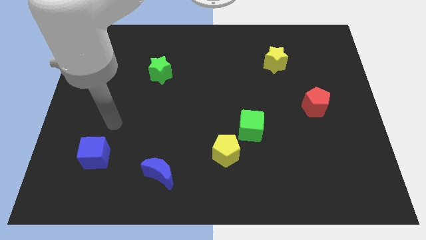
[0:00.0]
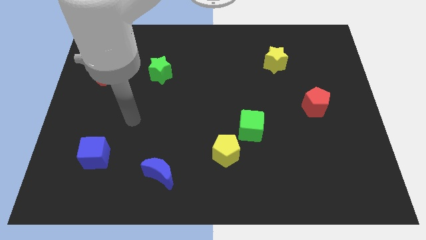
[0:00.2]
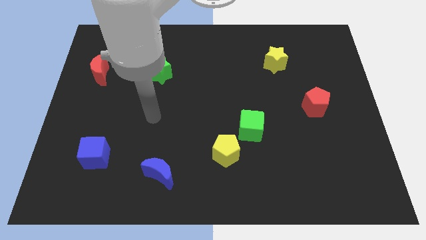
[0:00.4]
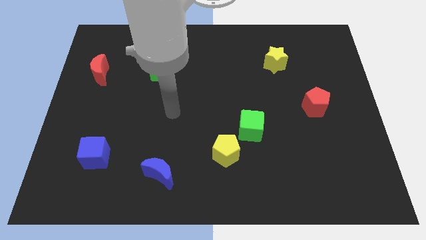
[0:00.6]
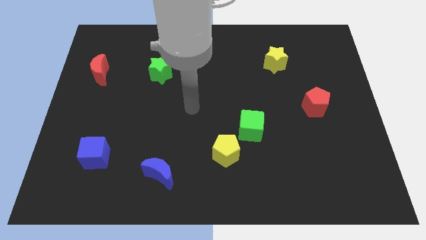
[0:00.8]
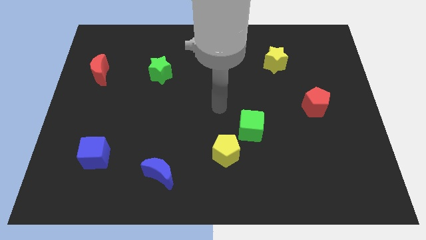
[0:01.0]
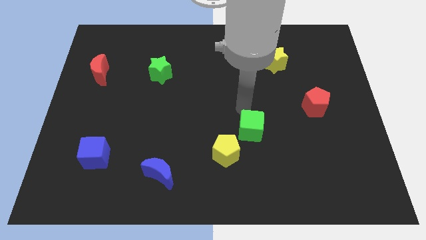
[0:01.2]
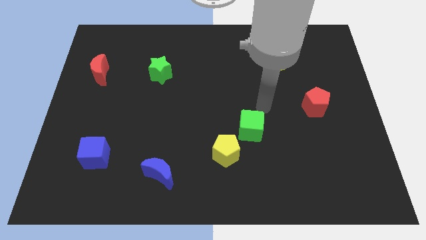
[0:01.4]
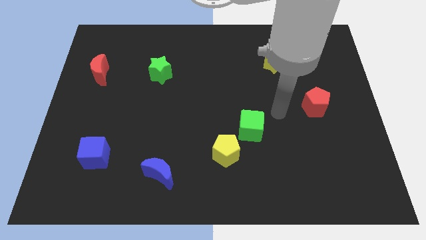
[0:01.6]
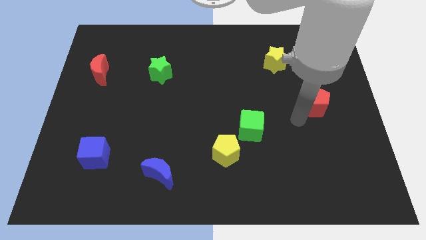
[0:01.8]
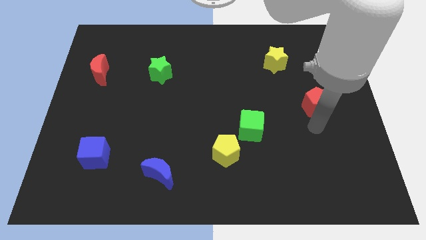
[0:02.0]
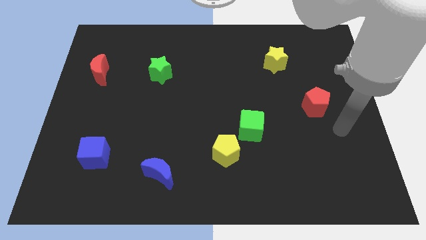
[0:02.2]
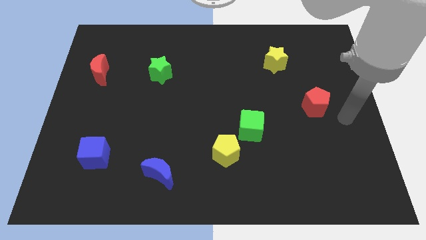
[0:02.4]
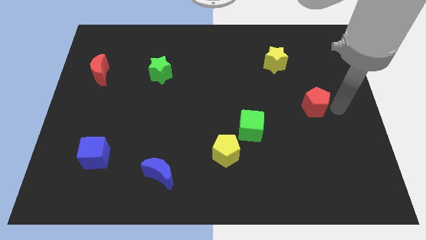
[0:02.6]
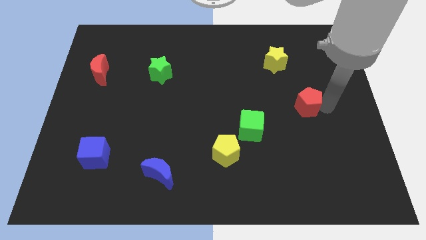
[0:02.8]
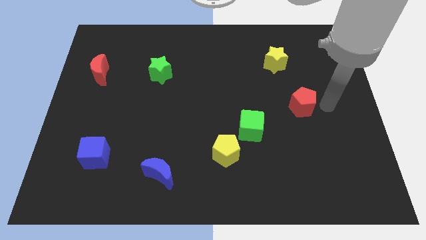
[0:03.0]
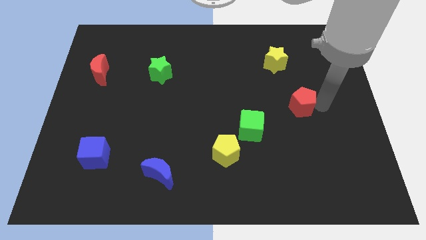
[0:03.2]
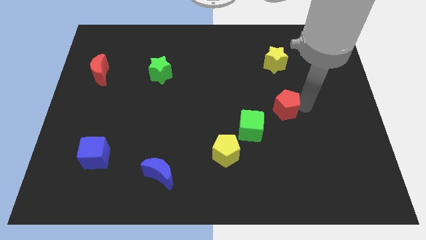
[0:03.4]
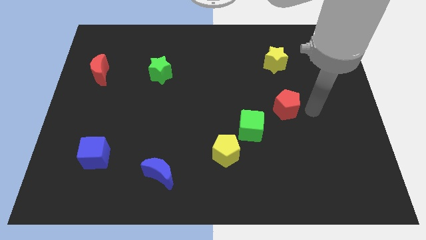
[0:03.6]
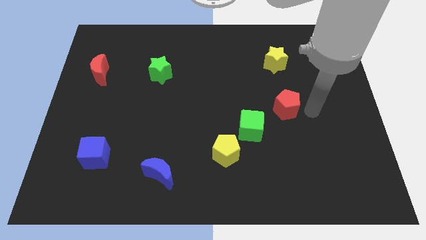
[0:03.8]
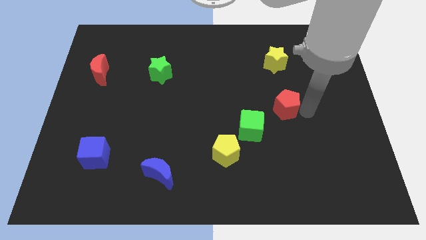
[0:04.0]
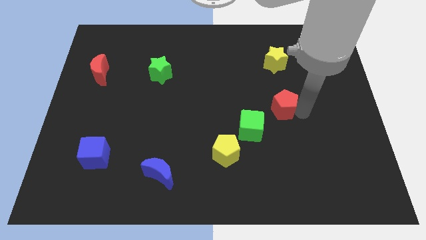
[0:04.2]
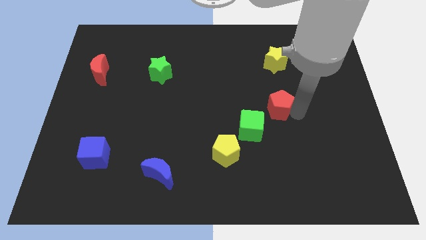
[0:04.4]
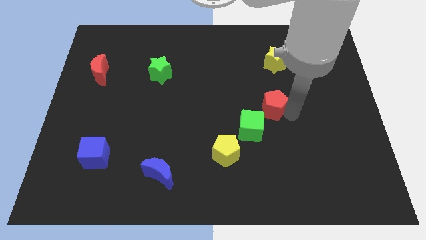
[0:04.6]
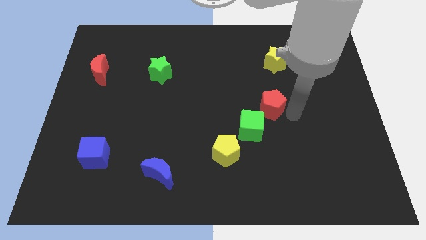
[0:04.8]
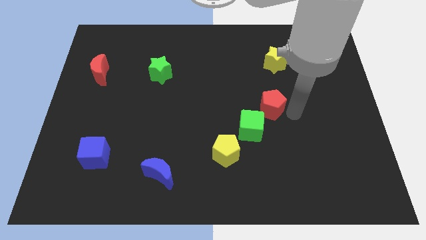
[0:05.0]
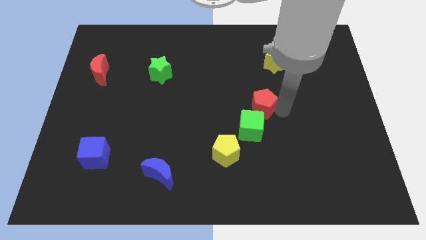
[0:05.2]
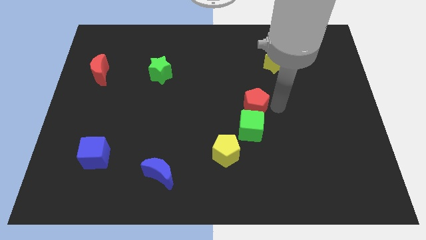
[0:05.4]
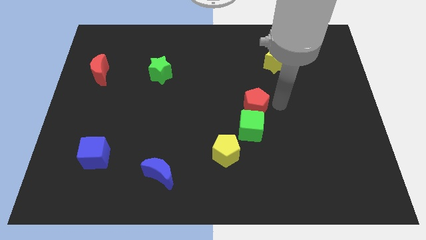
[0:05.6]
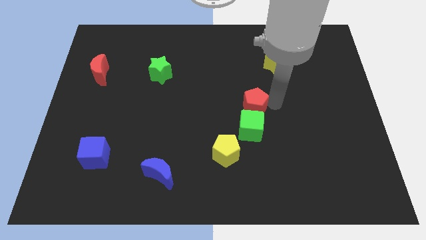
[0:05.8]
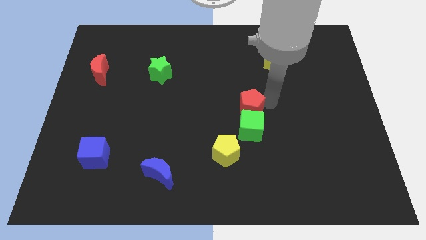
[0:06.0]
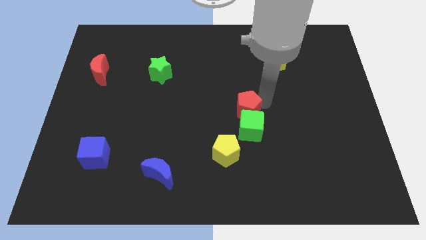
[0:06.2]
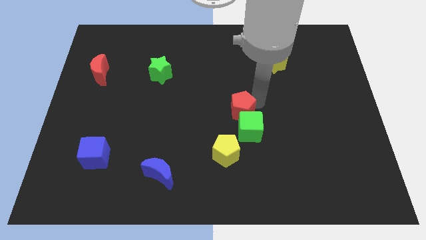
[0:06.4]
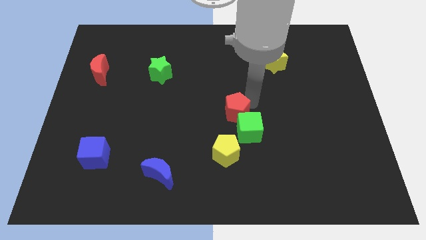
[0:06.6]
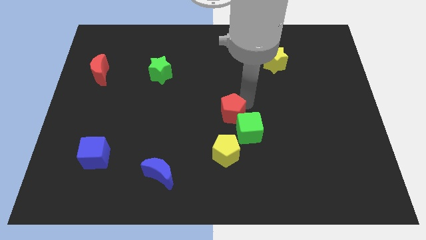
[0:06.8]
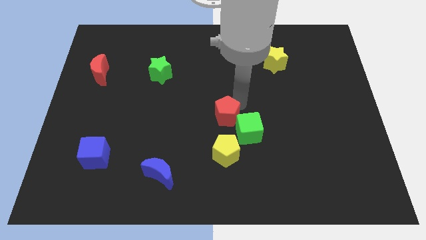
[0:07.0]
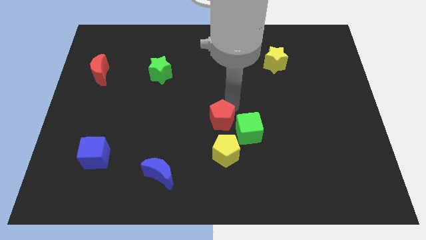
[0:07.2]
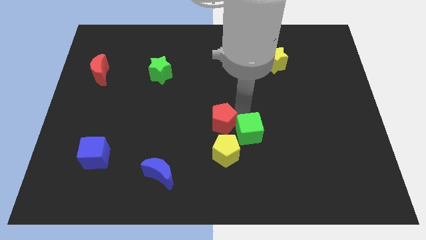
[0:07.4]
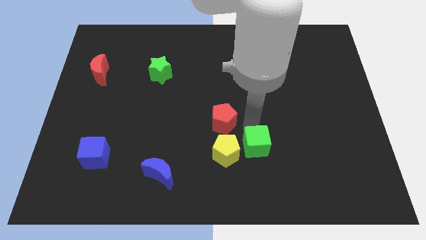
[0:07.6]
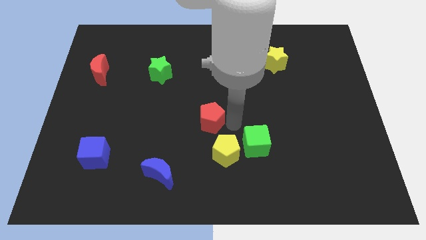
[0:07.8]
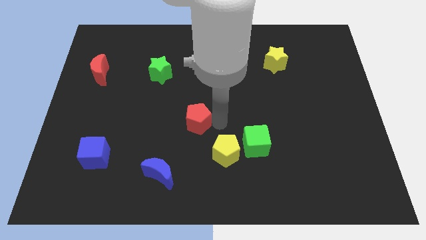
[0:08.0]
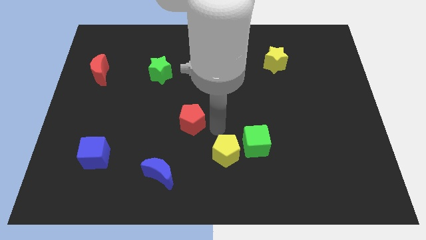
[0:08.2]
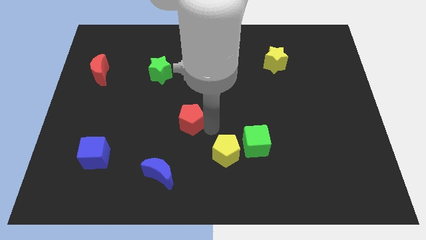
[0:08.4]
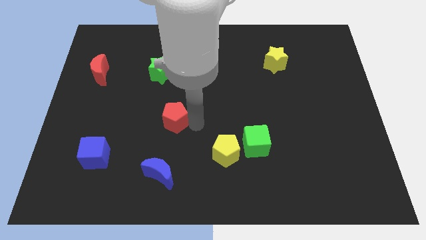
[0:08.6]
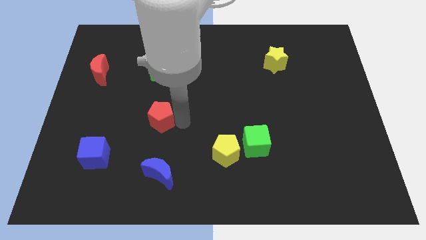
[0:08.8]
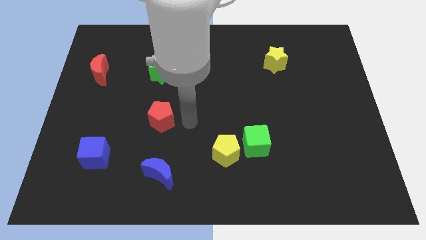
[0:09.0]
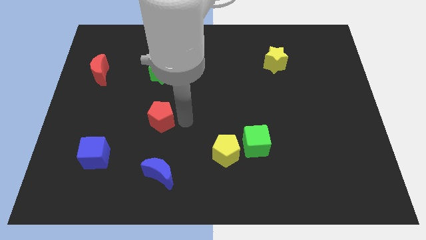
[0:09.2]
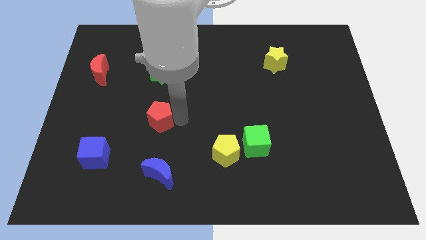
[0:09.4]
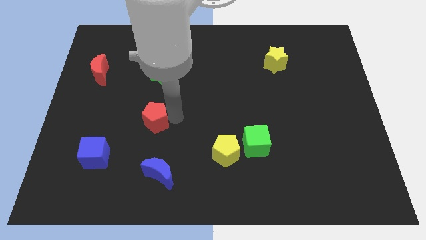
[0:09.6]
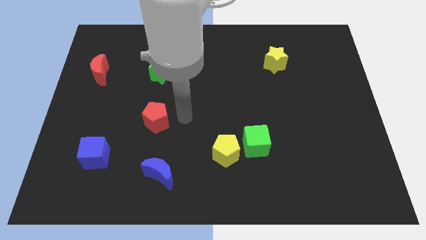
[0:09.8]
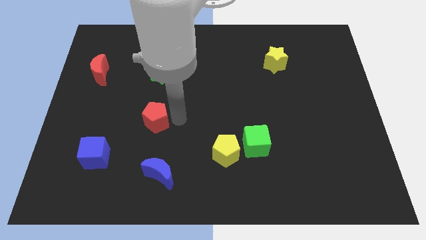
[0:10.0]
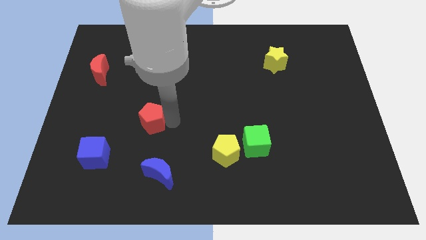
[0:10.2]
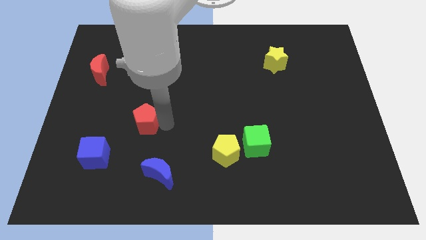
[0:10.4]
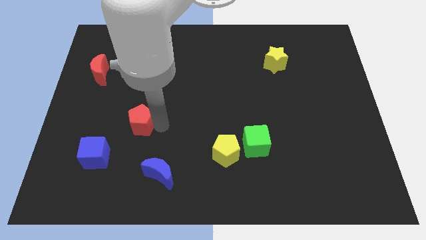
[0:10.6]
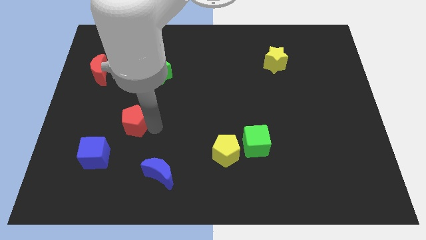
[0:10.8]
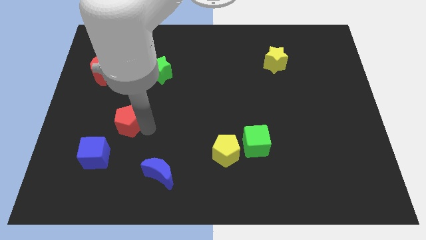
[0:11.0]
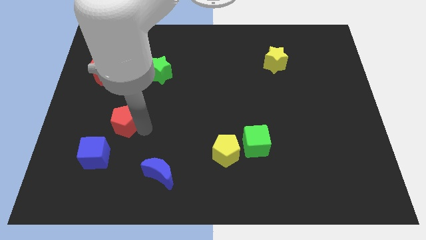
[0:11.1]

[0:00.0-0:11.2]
move the red pentagon to the top of the blue cube

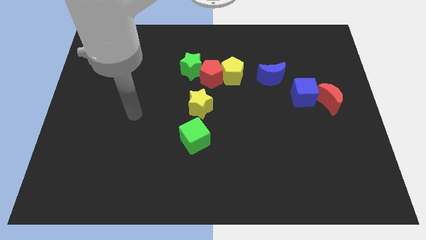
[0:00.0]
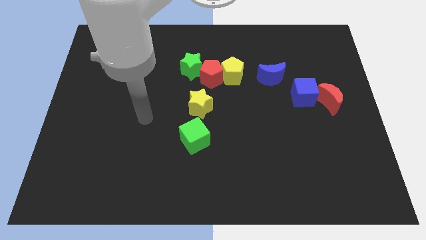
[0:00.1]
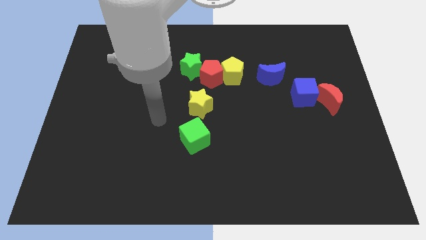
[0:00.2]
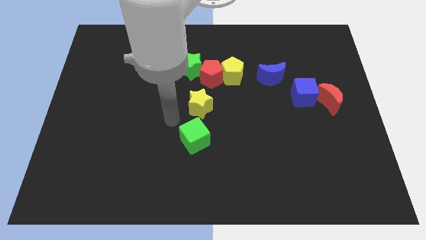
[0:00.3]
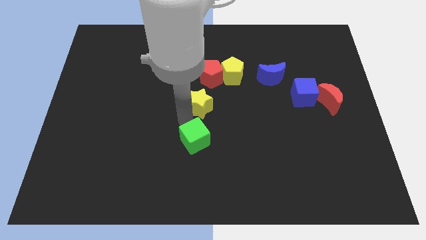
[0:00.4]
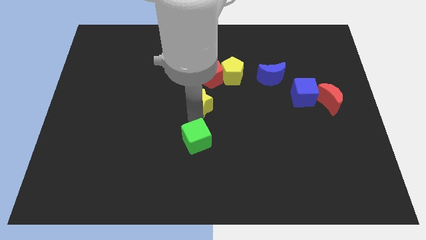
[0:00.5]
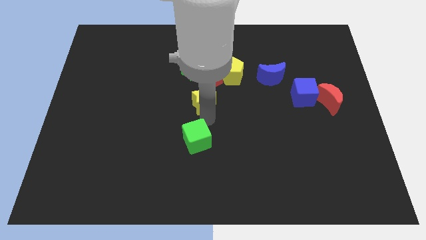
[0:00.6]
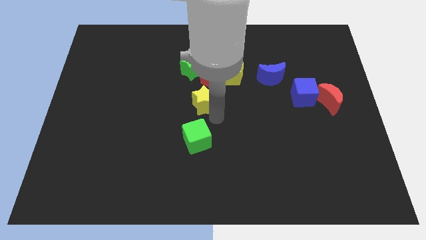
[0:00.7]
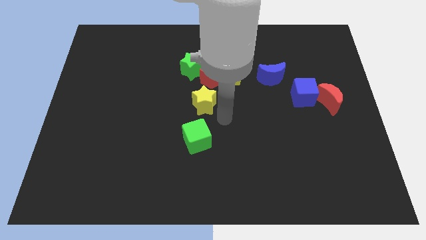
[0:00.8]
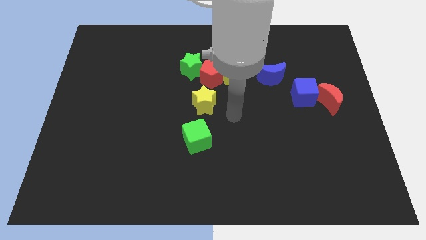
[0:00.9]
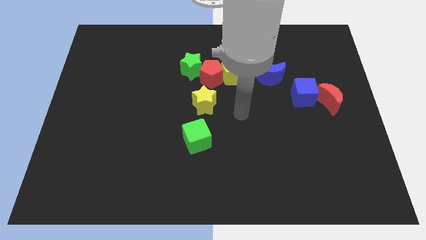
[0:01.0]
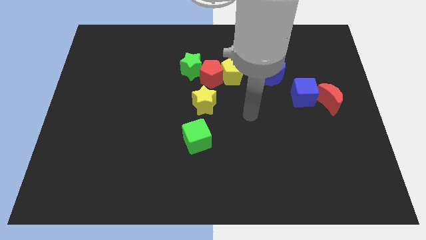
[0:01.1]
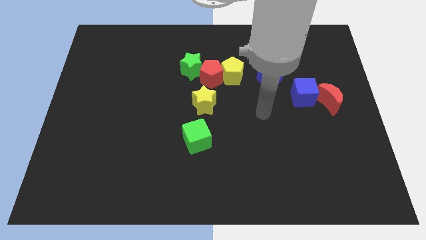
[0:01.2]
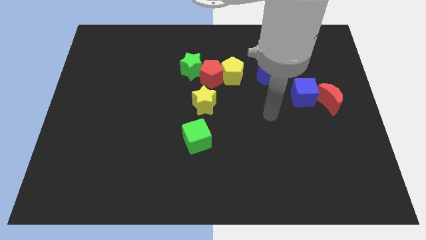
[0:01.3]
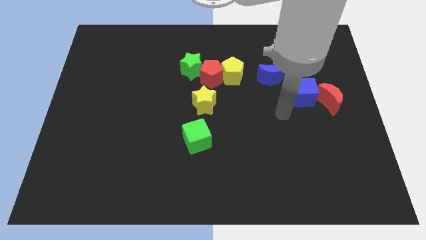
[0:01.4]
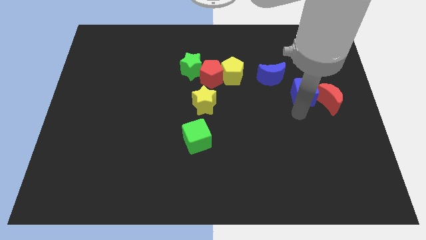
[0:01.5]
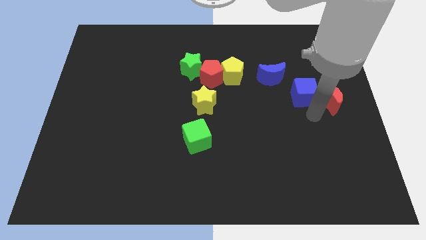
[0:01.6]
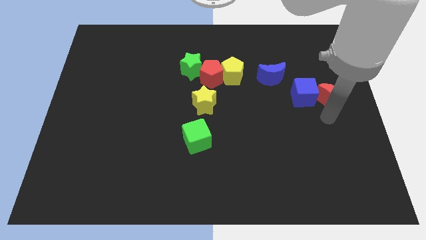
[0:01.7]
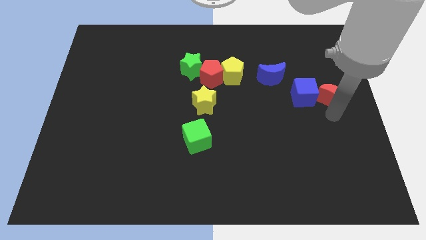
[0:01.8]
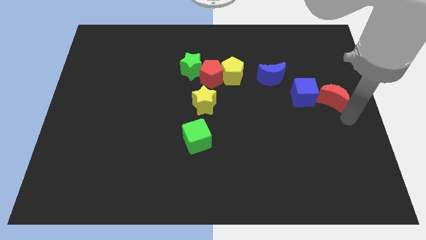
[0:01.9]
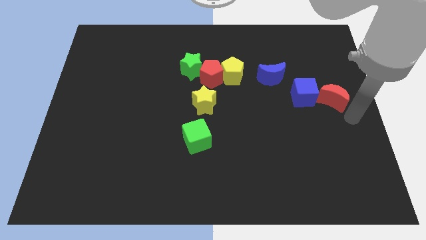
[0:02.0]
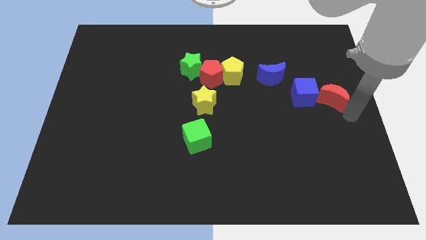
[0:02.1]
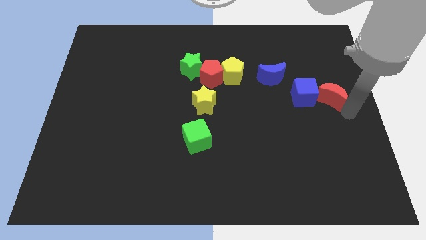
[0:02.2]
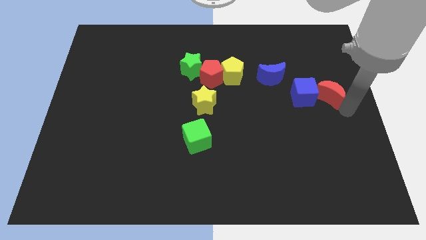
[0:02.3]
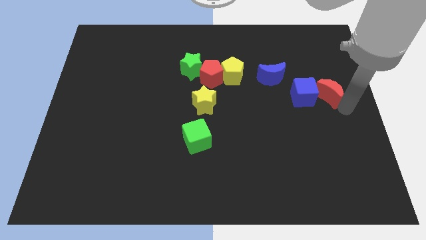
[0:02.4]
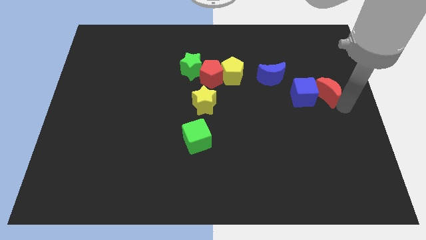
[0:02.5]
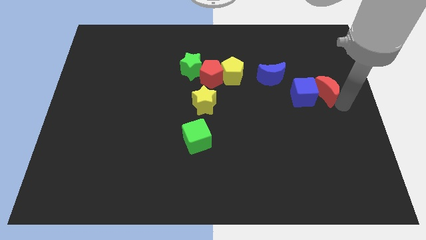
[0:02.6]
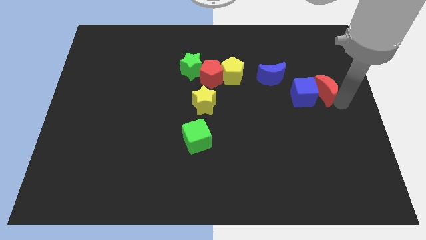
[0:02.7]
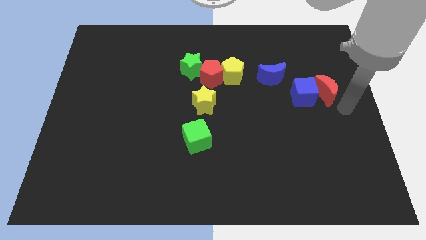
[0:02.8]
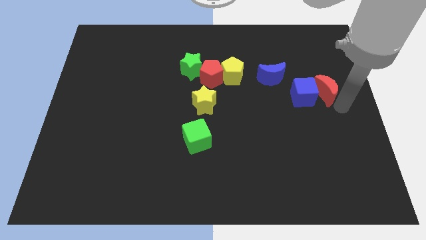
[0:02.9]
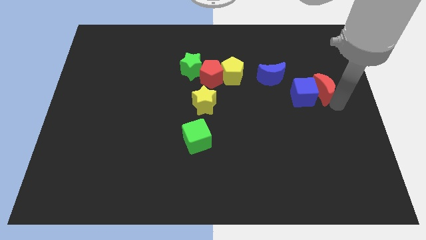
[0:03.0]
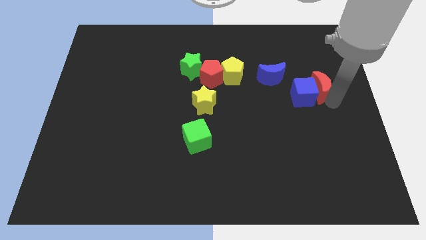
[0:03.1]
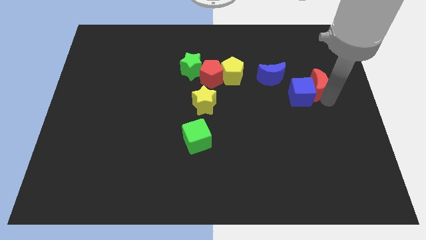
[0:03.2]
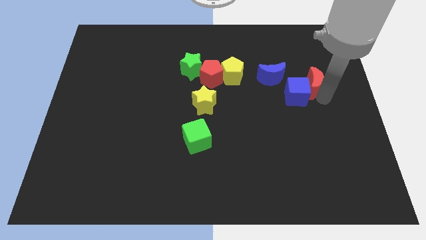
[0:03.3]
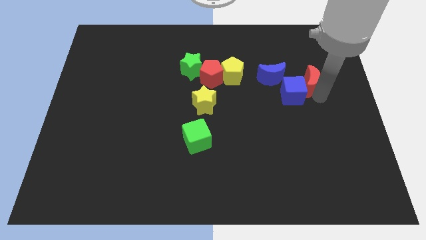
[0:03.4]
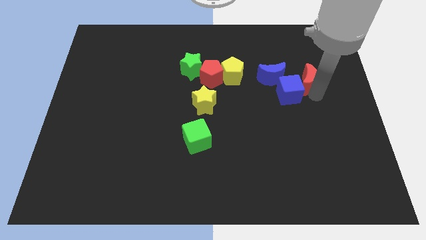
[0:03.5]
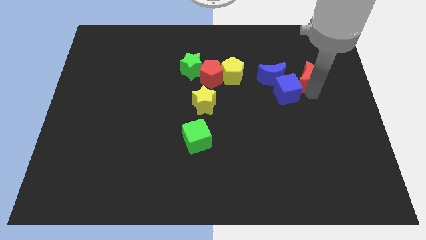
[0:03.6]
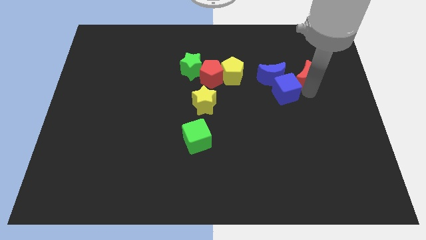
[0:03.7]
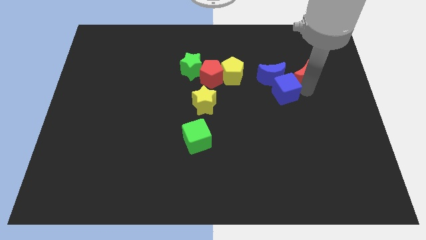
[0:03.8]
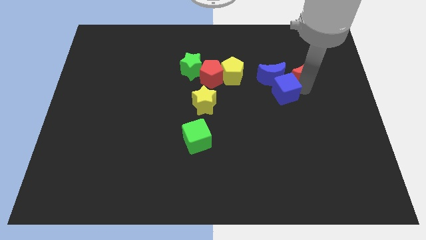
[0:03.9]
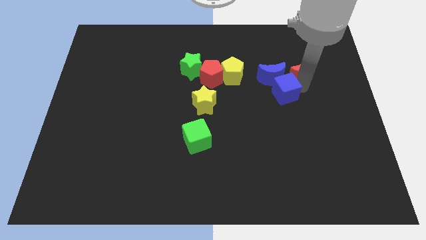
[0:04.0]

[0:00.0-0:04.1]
move the red moon to the top right side of the blue moon
